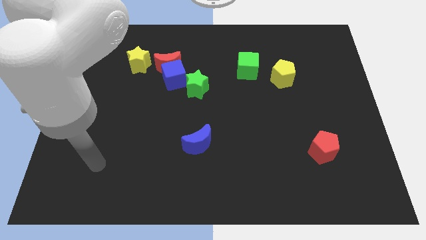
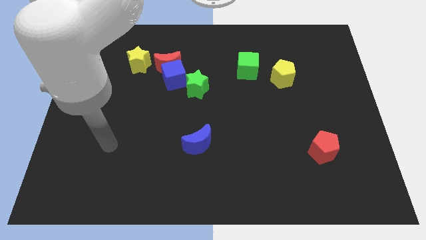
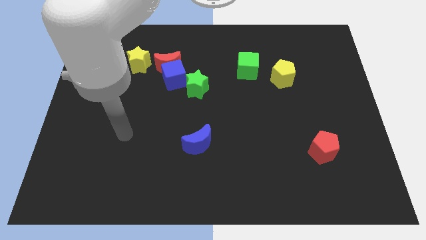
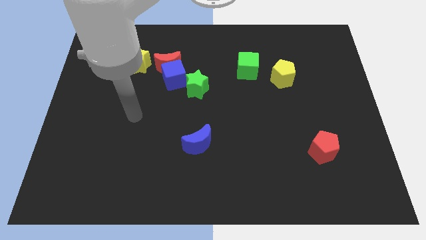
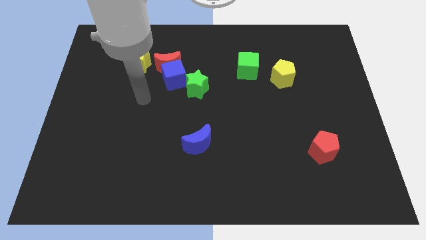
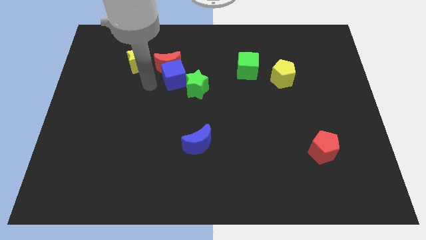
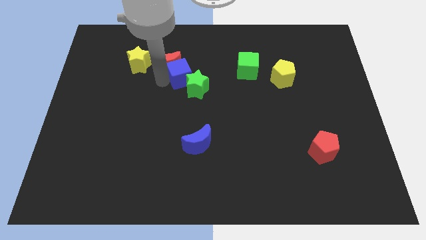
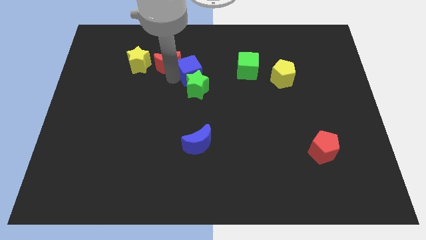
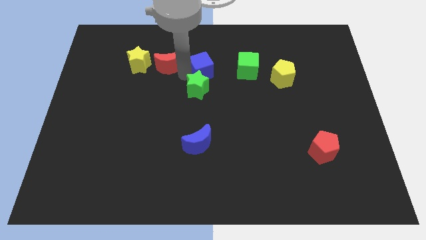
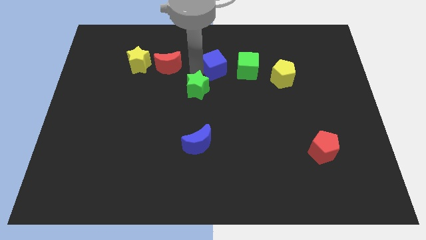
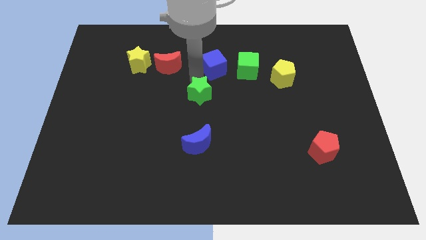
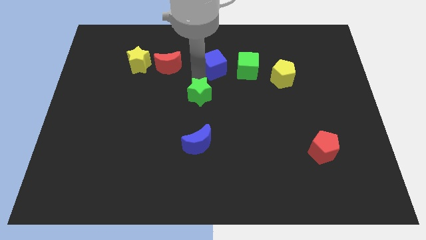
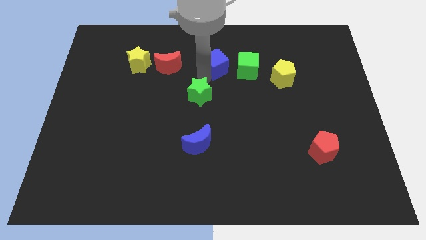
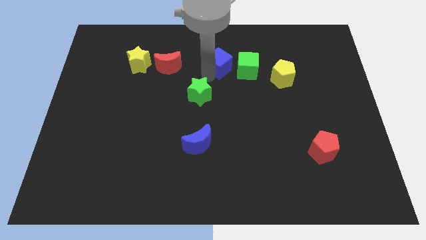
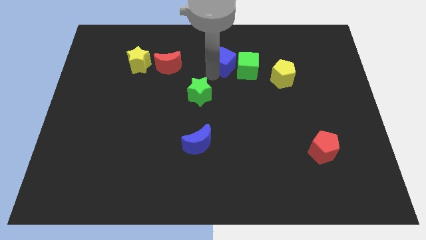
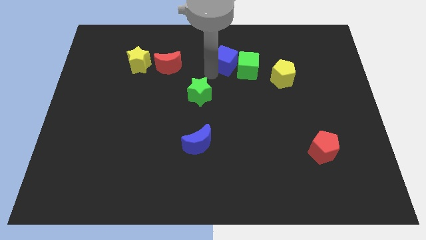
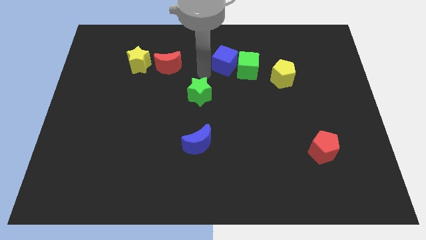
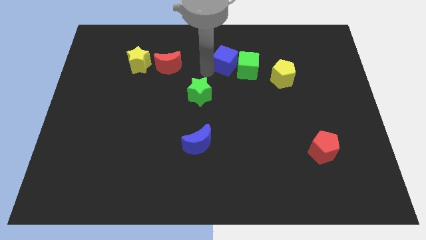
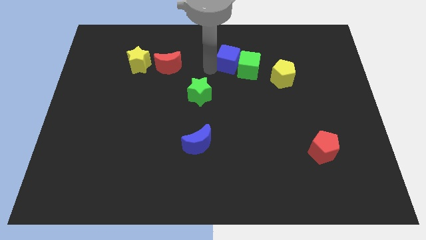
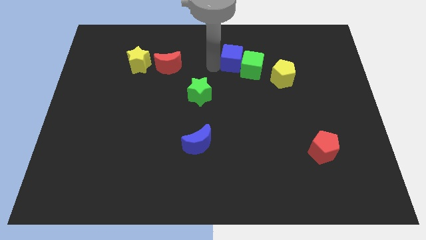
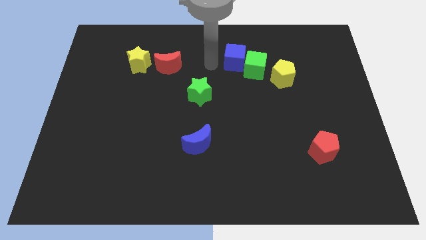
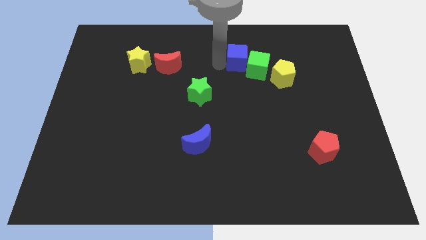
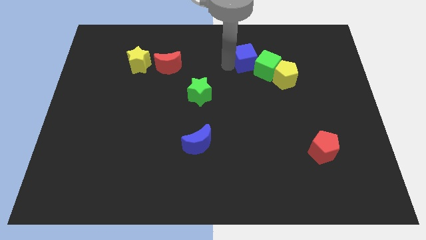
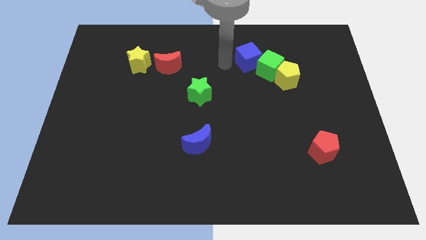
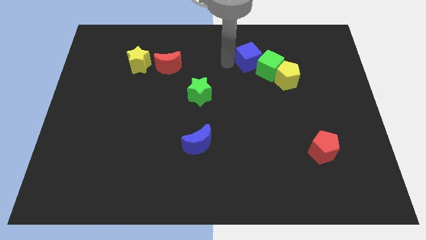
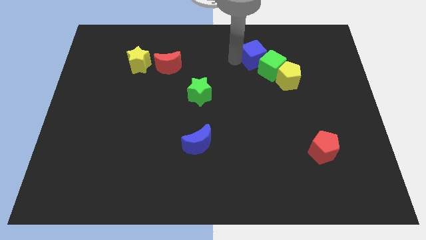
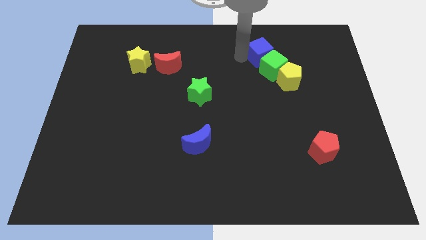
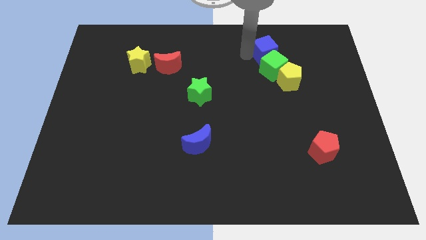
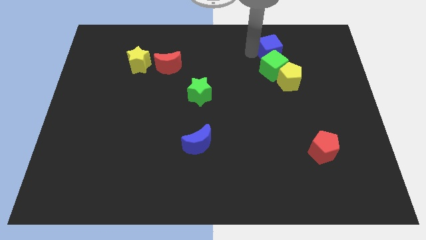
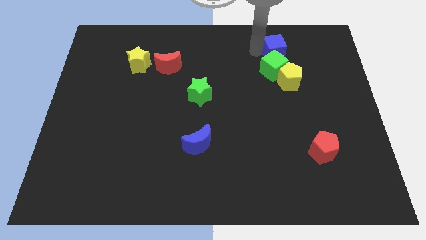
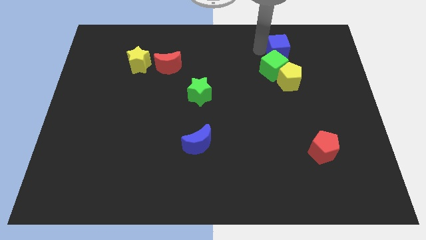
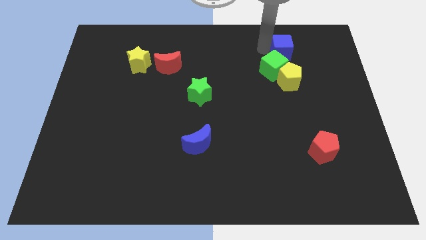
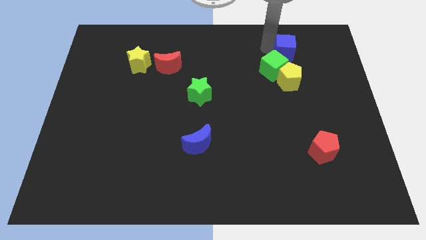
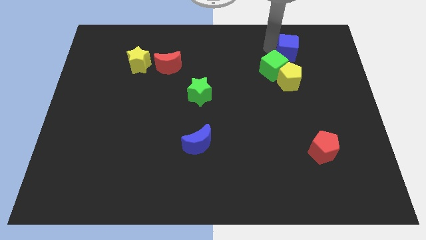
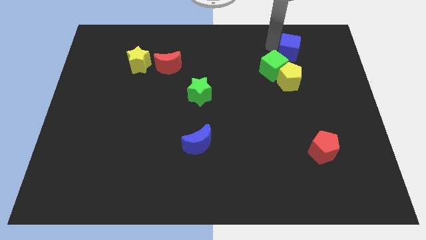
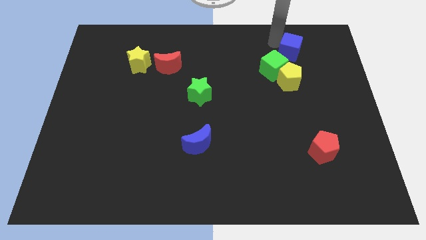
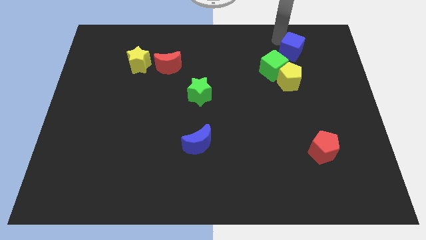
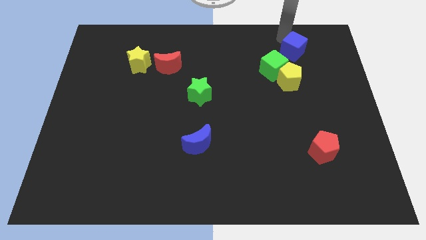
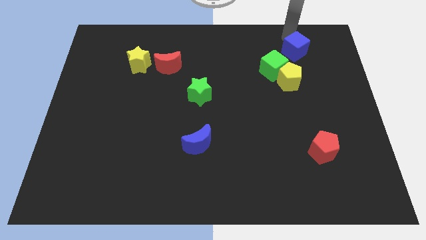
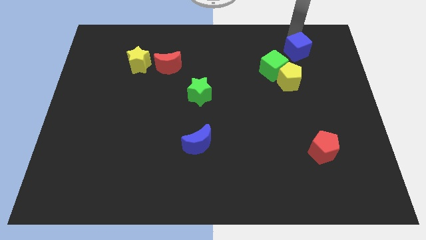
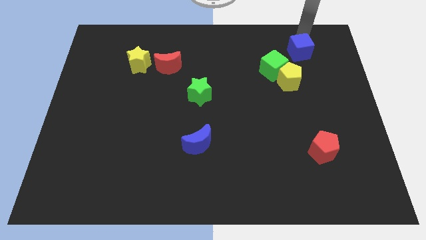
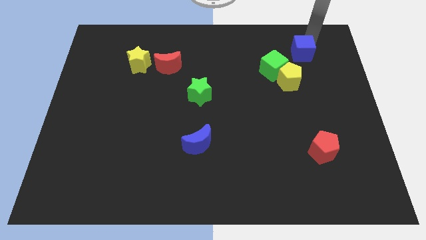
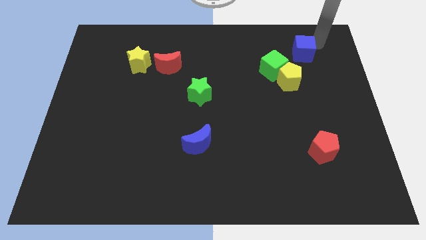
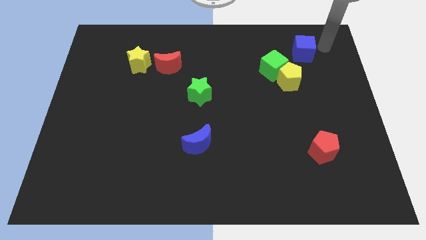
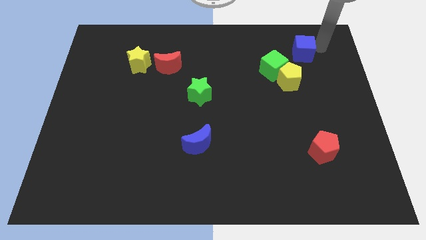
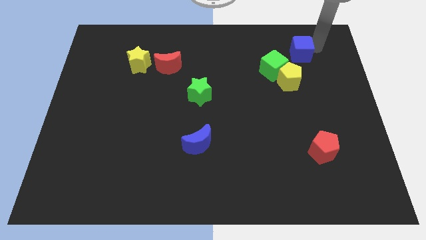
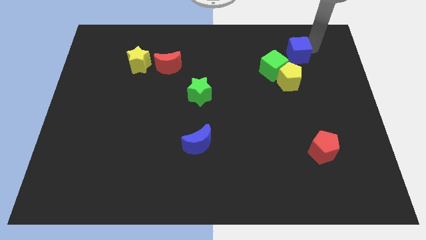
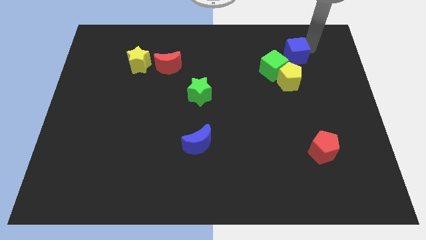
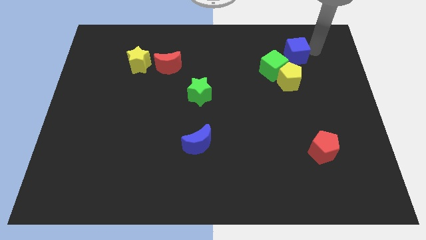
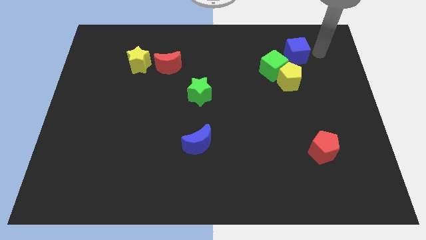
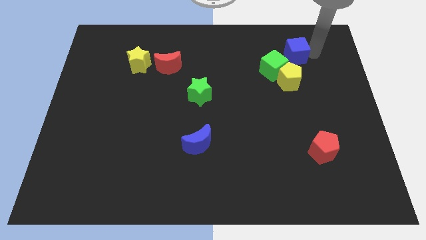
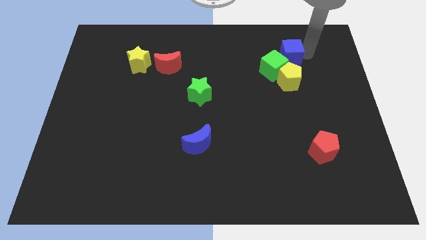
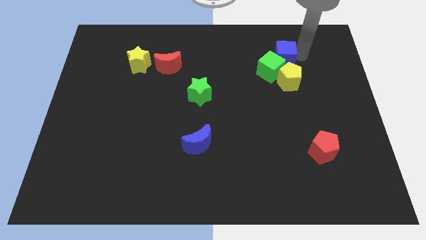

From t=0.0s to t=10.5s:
push the blue cube to the top right of the green cube
